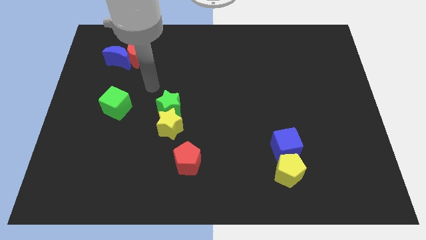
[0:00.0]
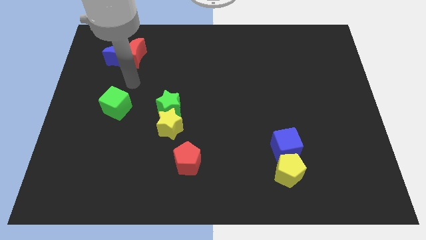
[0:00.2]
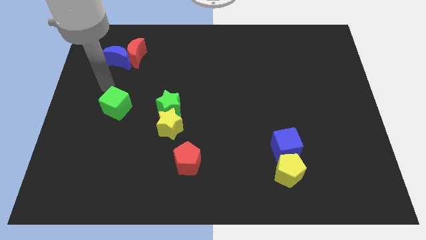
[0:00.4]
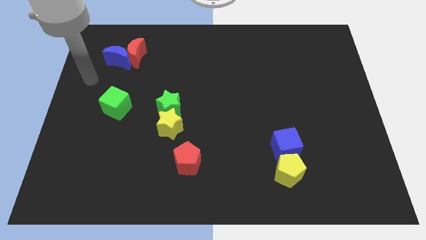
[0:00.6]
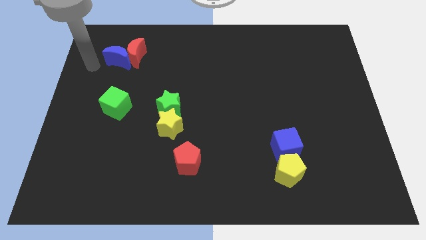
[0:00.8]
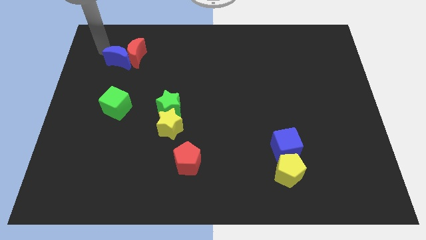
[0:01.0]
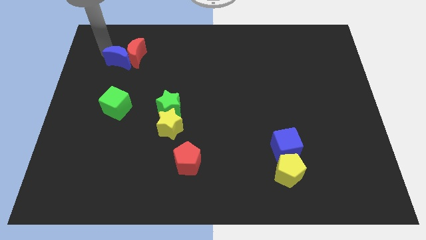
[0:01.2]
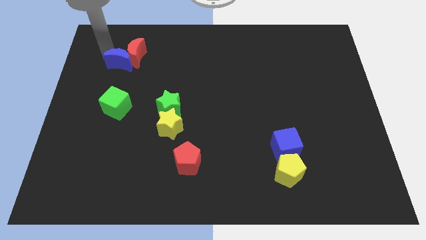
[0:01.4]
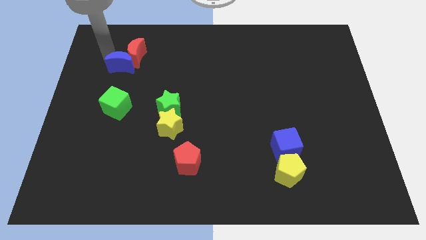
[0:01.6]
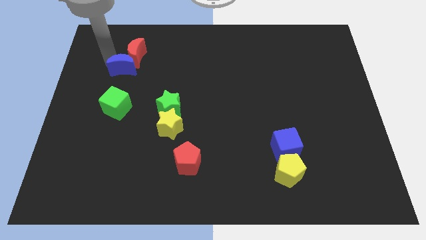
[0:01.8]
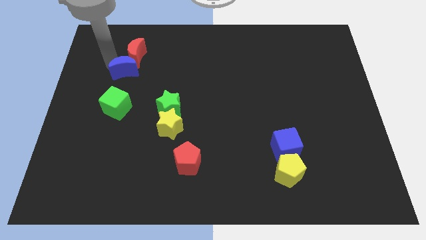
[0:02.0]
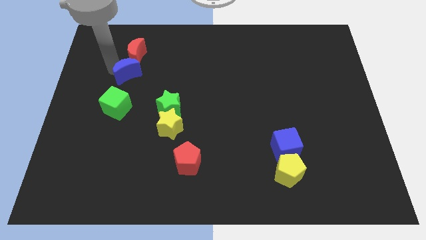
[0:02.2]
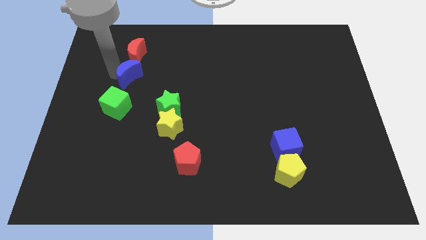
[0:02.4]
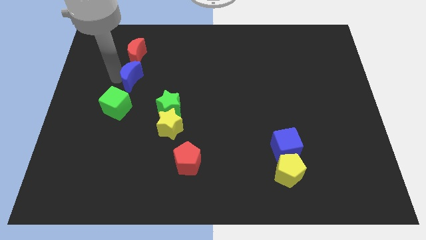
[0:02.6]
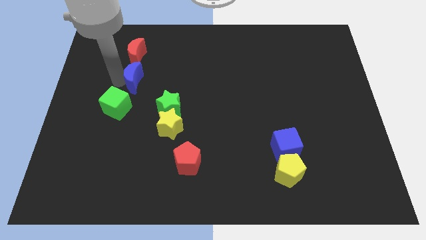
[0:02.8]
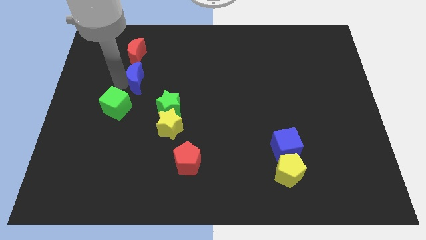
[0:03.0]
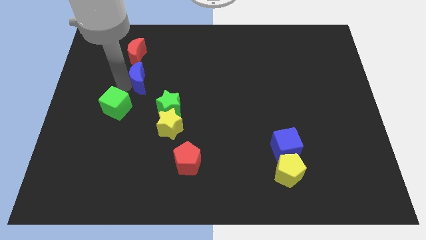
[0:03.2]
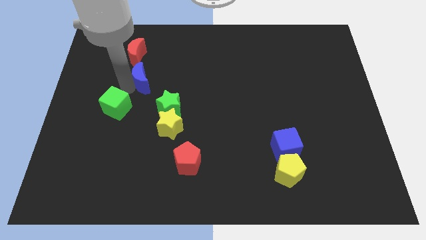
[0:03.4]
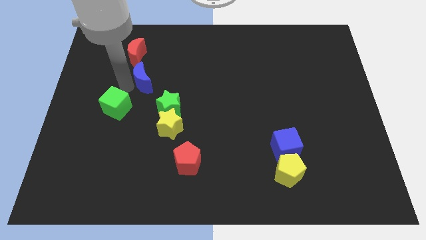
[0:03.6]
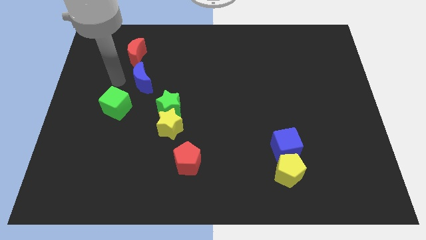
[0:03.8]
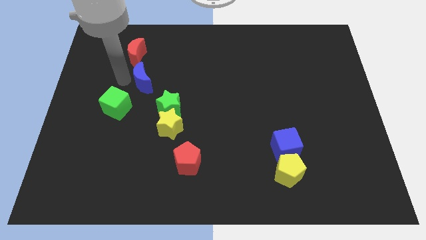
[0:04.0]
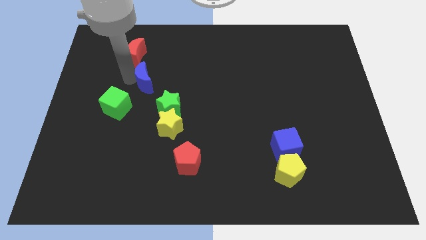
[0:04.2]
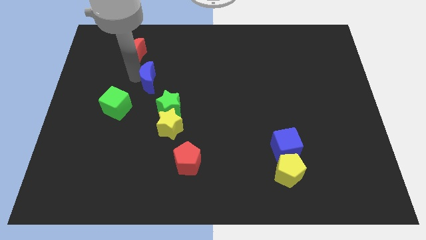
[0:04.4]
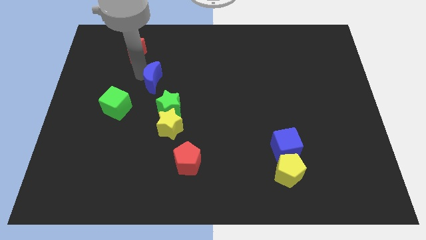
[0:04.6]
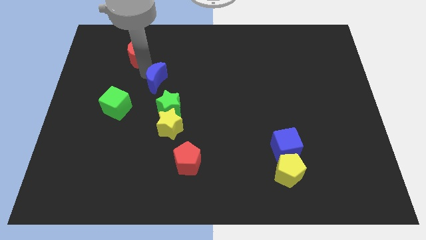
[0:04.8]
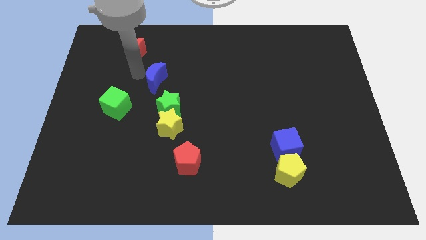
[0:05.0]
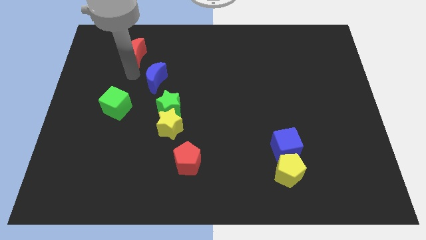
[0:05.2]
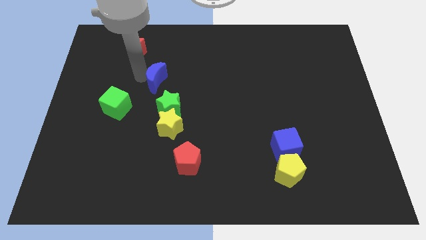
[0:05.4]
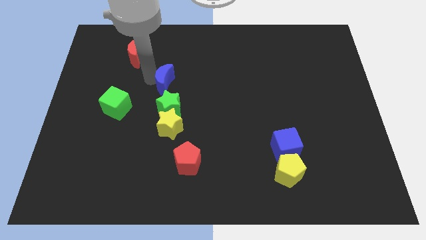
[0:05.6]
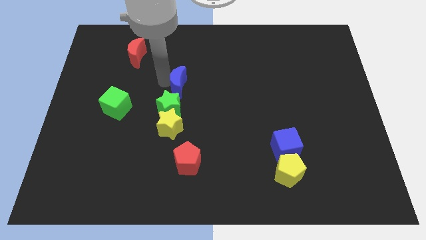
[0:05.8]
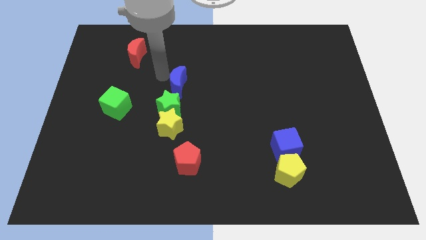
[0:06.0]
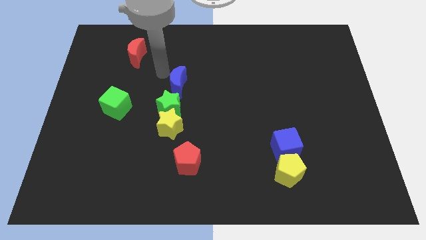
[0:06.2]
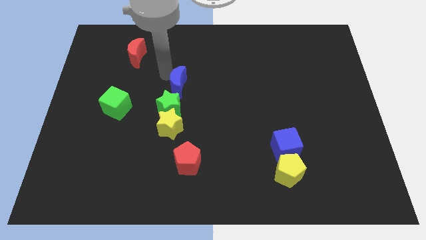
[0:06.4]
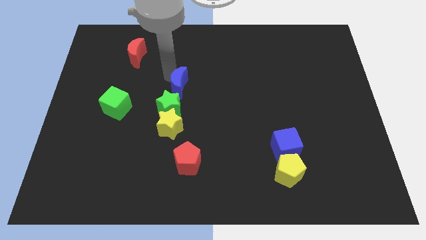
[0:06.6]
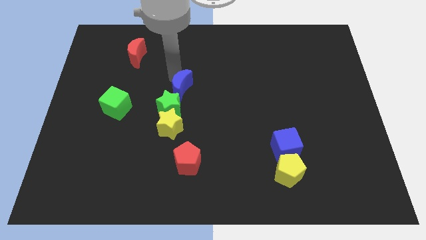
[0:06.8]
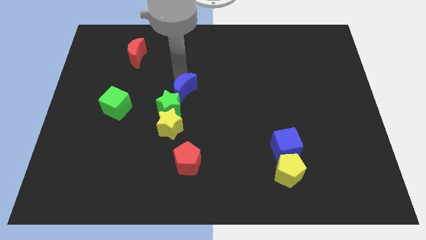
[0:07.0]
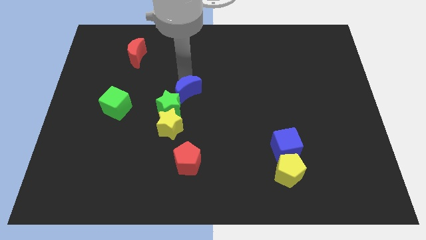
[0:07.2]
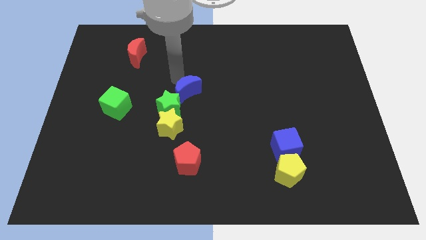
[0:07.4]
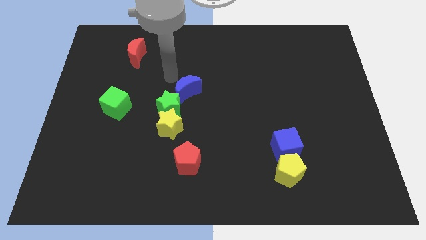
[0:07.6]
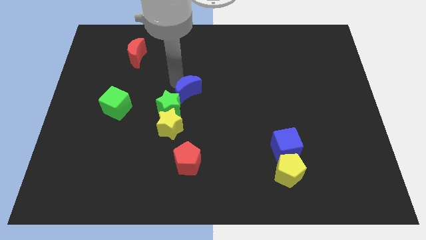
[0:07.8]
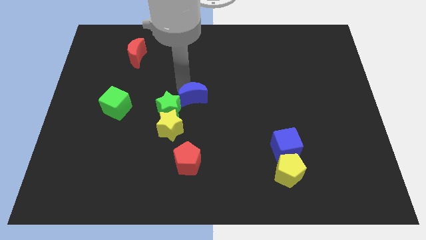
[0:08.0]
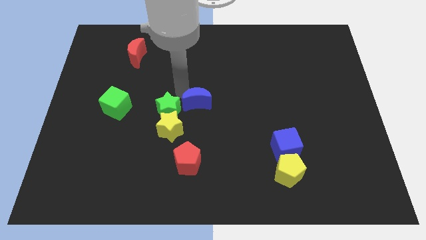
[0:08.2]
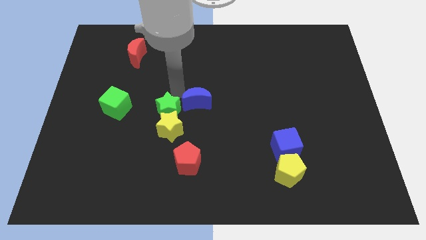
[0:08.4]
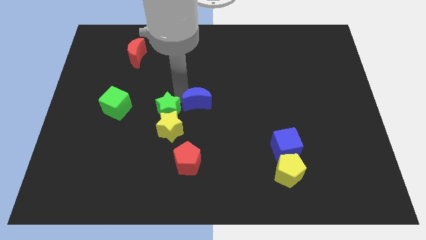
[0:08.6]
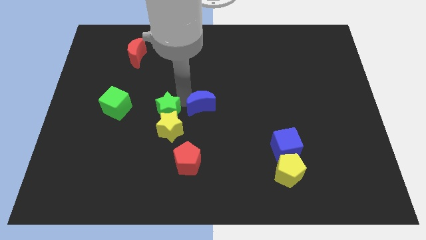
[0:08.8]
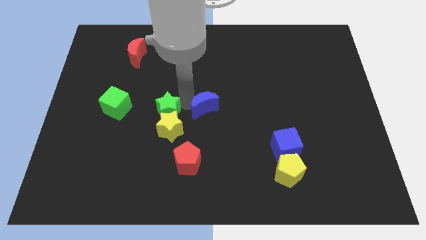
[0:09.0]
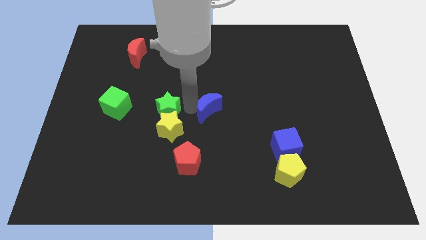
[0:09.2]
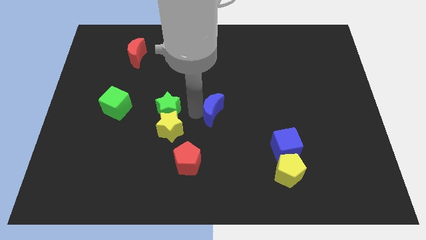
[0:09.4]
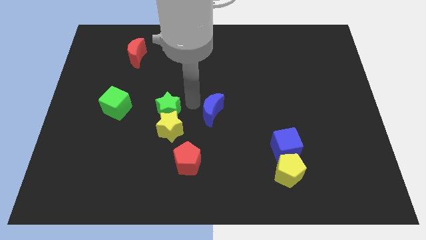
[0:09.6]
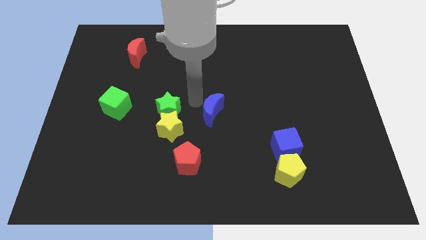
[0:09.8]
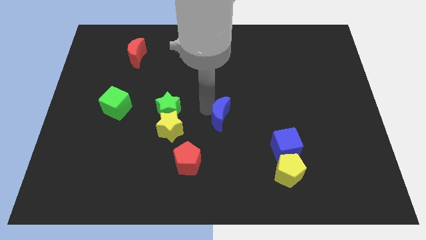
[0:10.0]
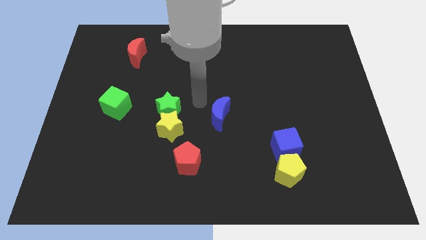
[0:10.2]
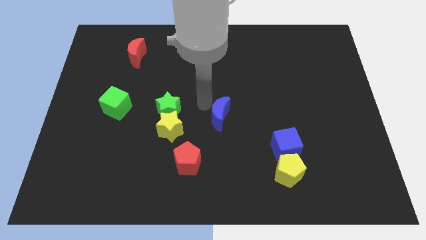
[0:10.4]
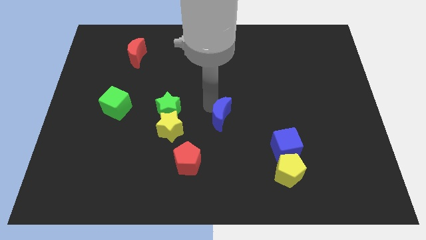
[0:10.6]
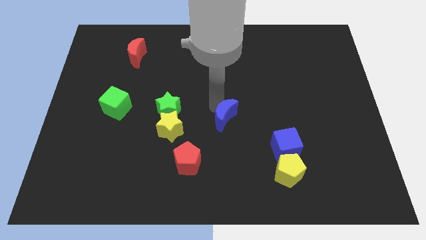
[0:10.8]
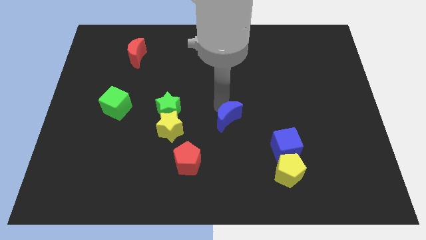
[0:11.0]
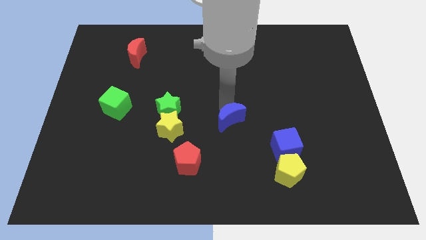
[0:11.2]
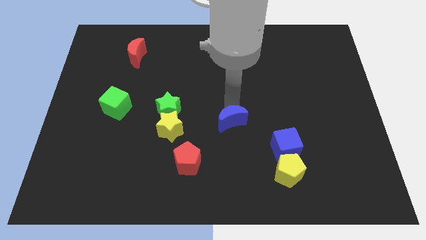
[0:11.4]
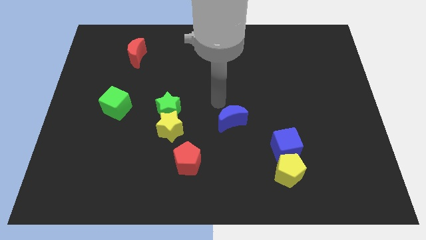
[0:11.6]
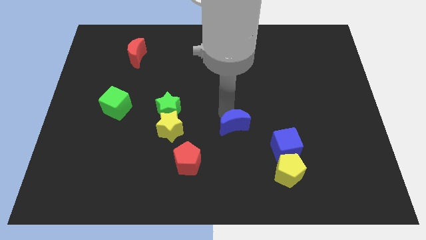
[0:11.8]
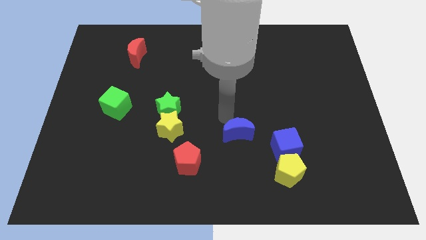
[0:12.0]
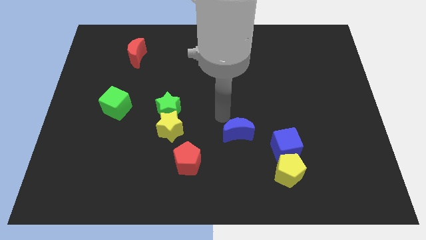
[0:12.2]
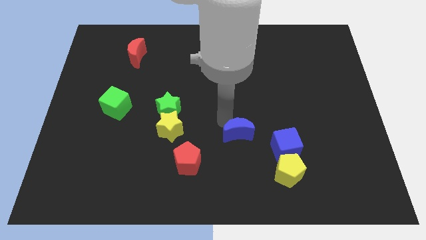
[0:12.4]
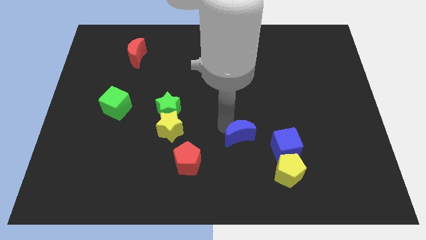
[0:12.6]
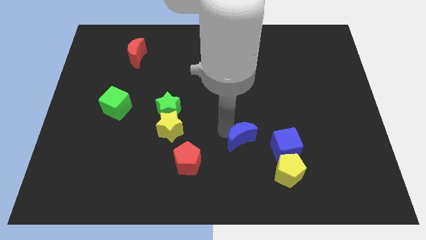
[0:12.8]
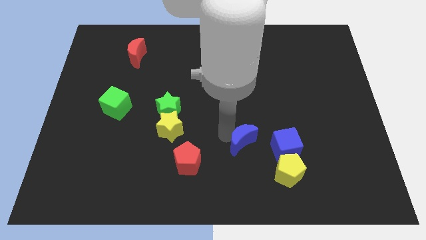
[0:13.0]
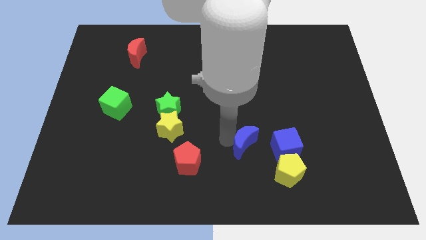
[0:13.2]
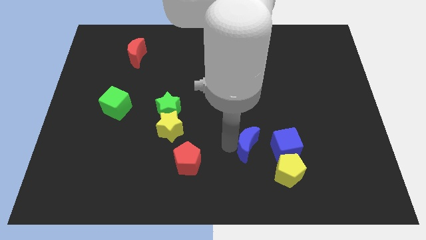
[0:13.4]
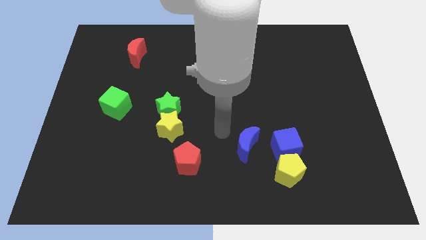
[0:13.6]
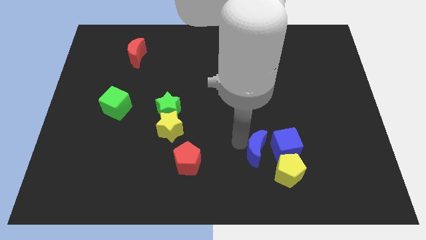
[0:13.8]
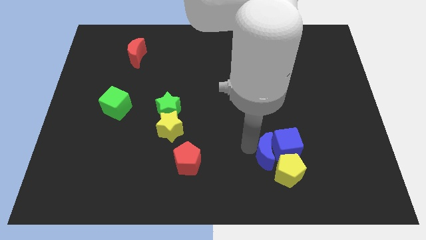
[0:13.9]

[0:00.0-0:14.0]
slide the blue moon towards the yellow pentagon
